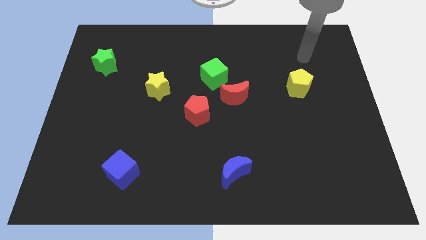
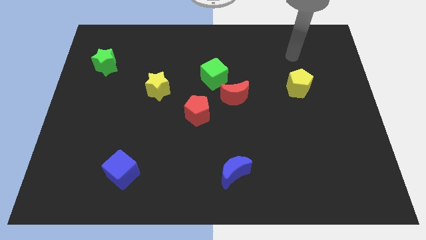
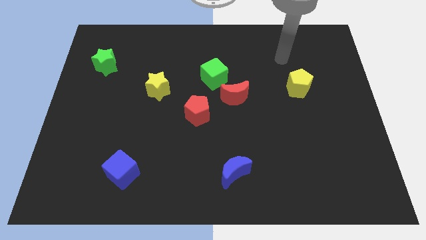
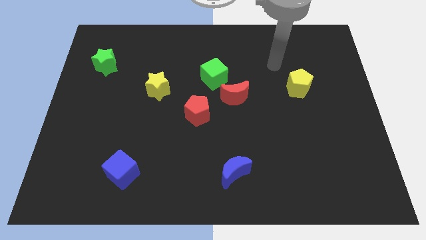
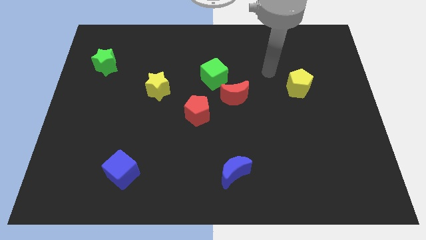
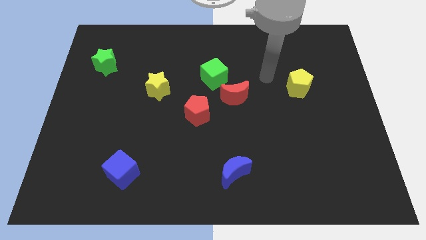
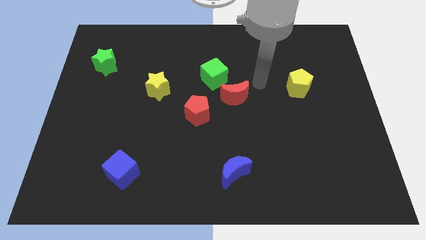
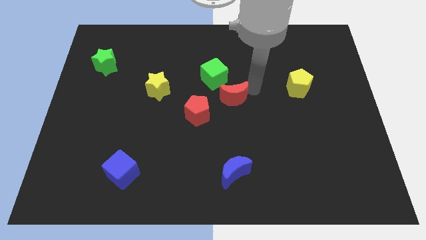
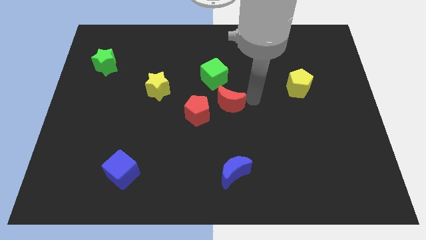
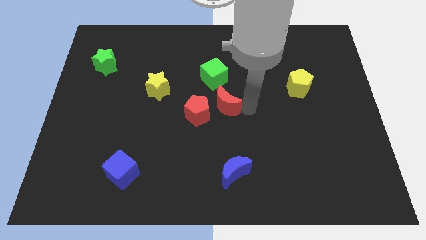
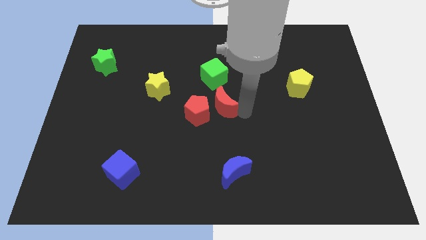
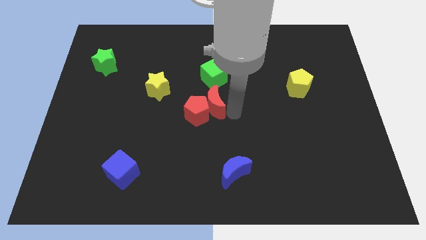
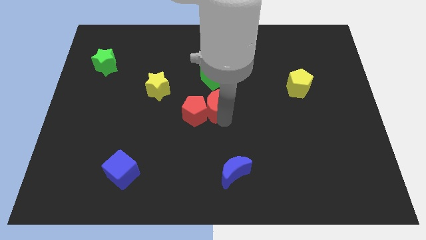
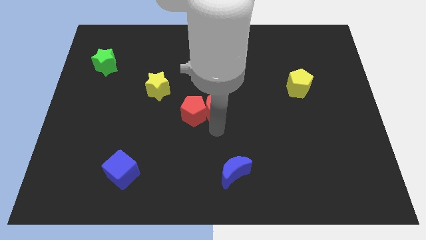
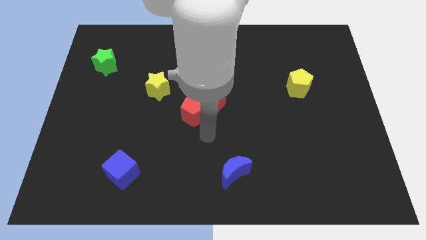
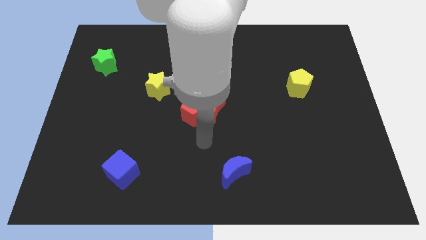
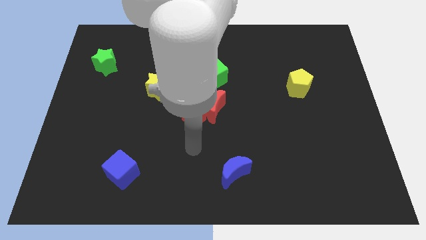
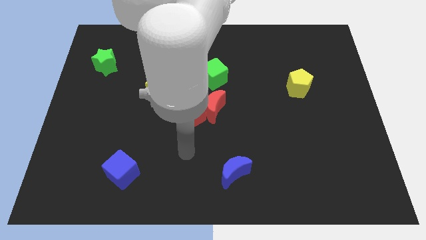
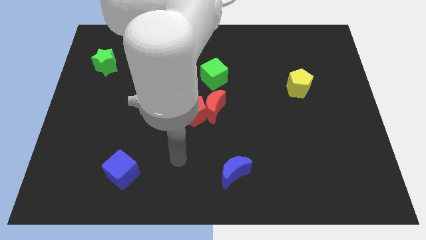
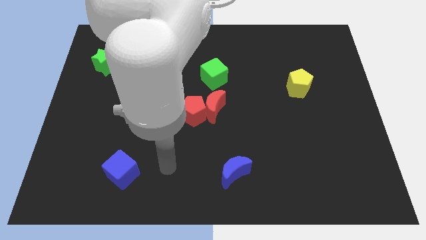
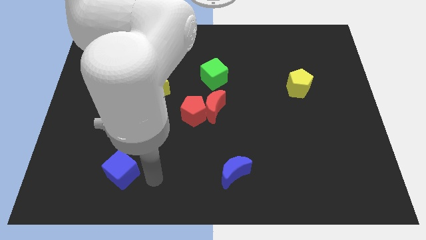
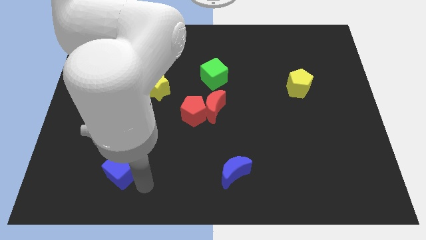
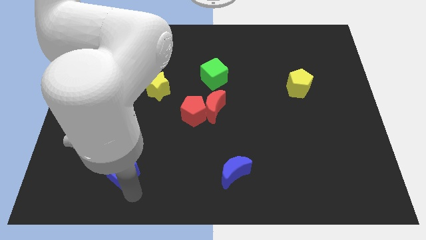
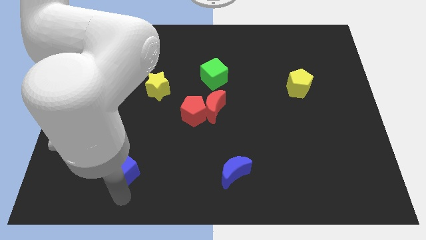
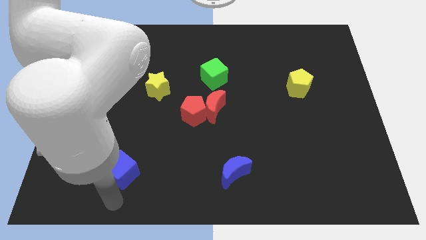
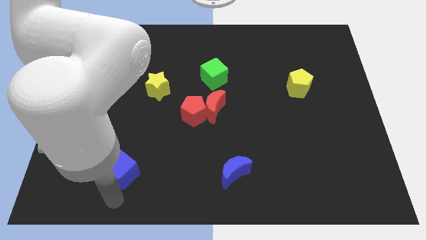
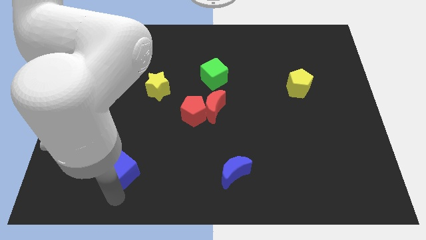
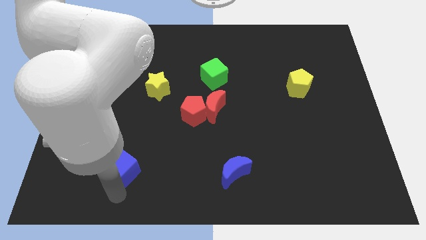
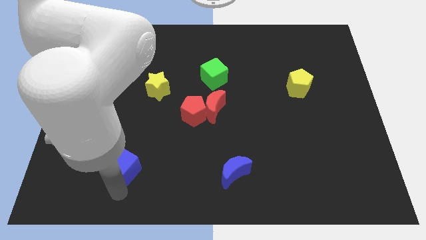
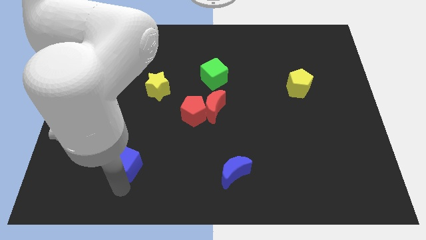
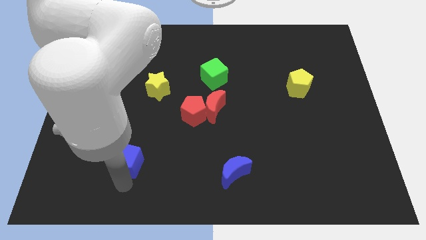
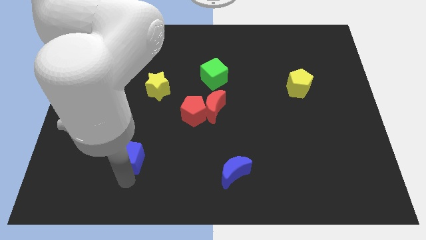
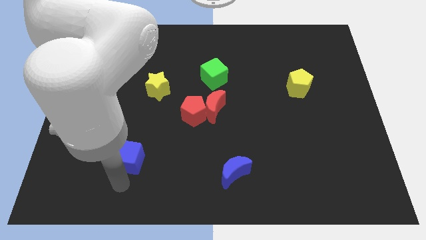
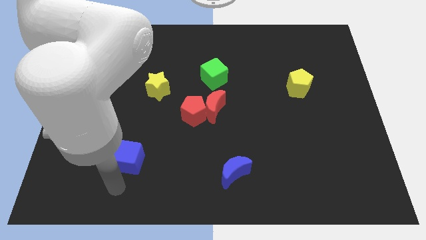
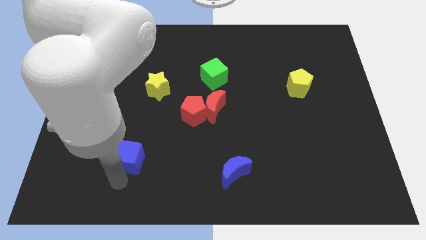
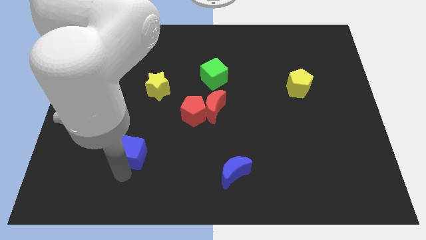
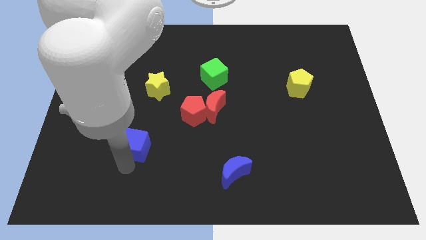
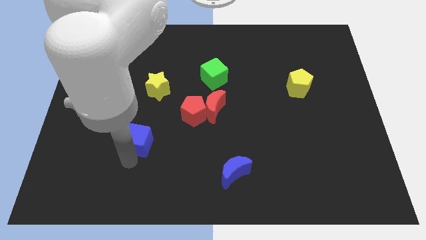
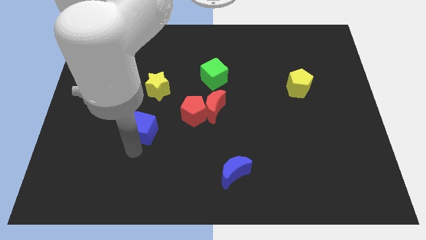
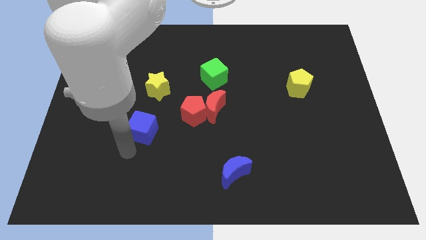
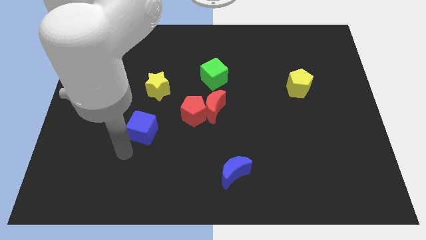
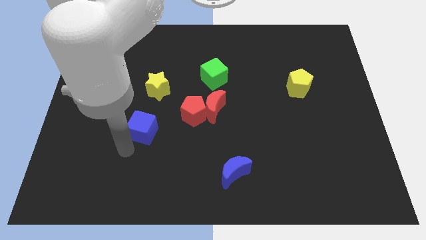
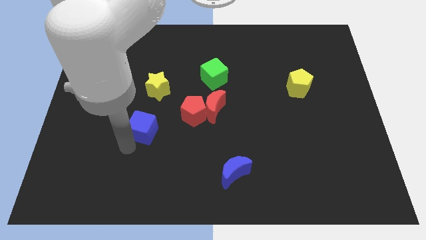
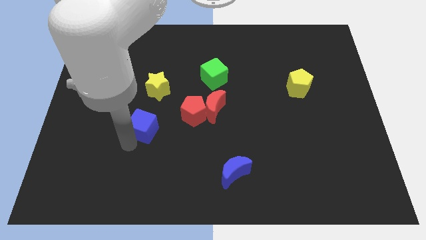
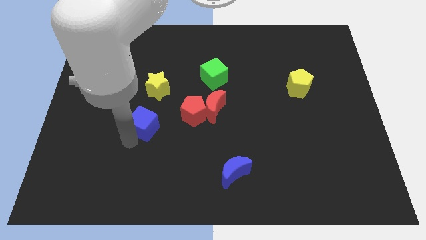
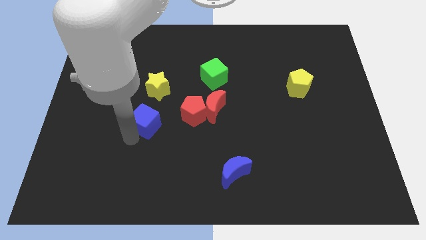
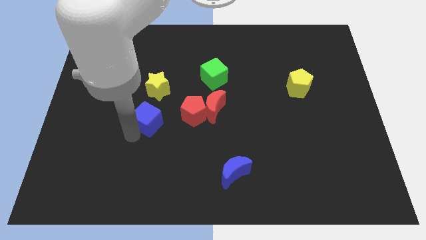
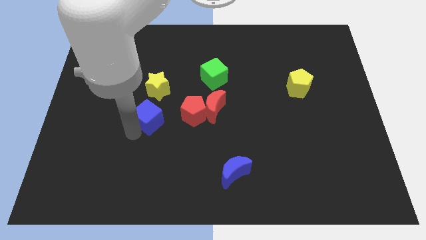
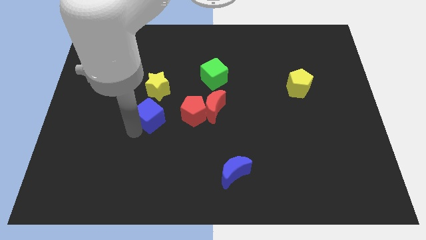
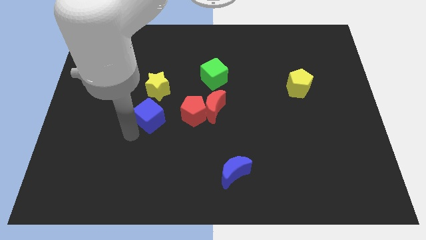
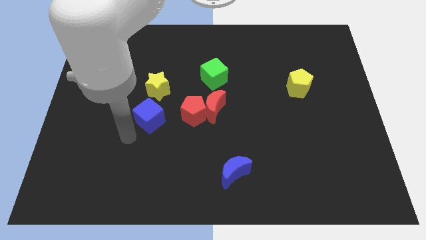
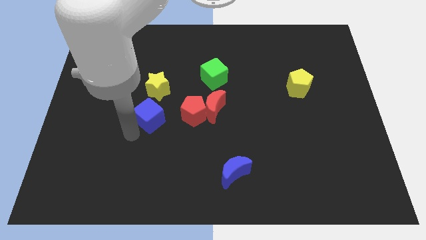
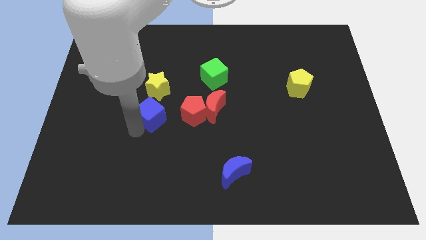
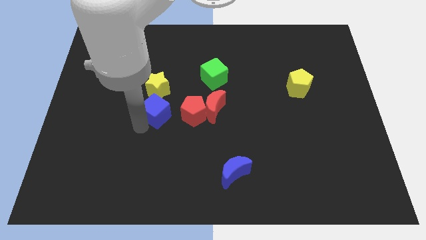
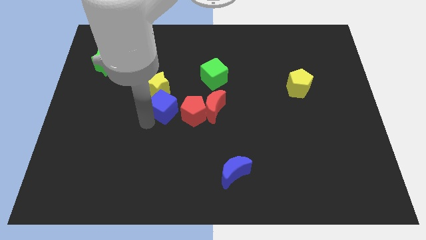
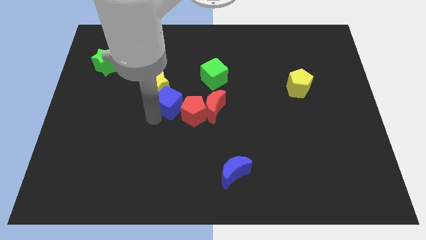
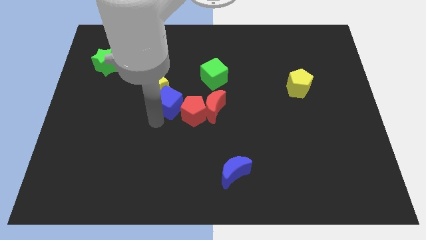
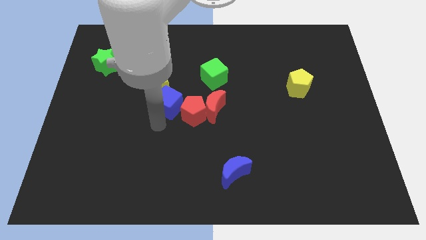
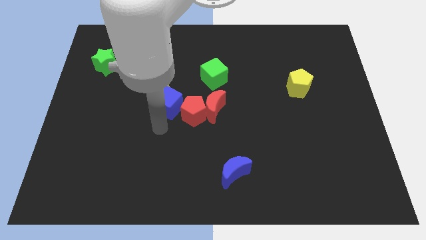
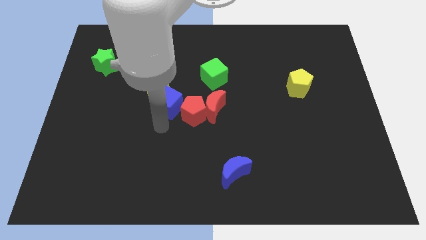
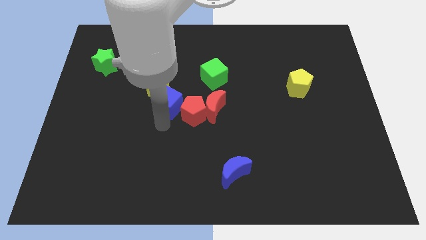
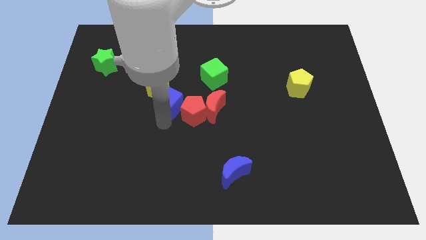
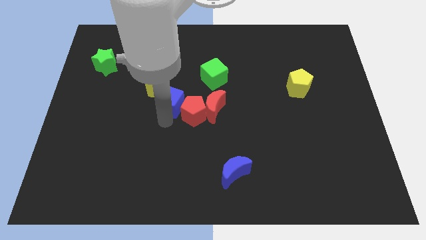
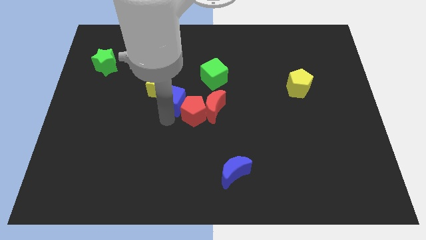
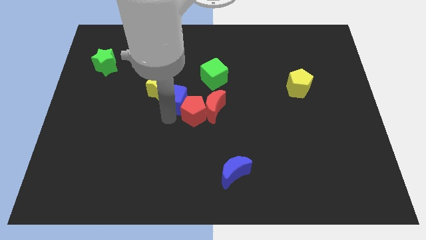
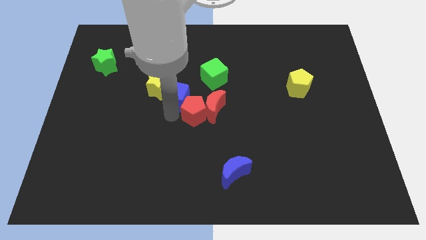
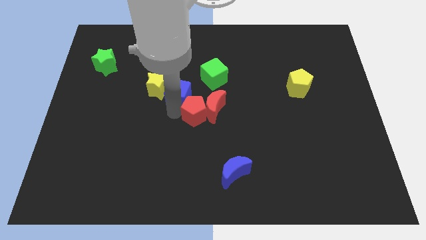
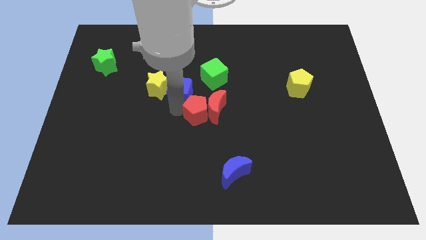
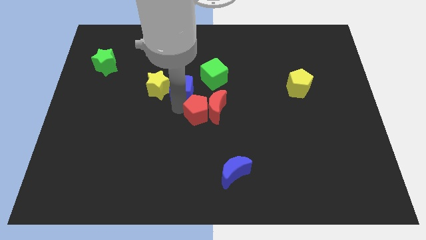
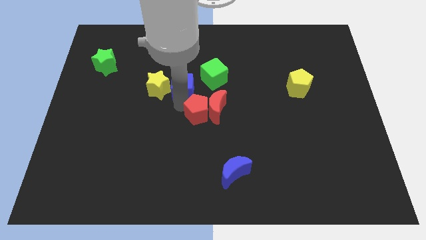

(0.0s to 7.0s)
put the blue cube to the top right side of the yellow star
